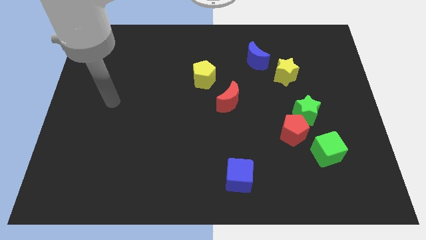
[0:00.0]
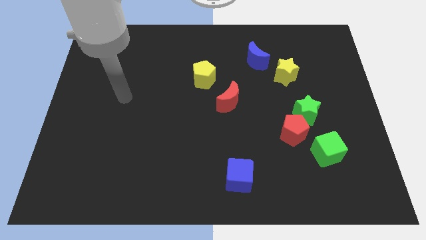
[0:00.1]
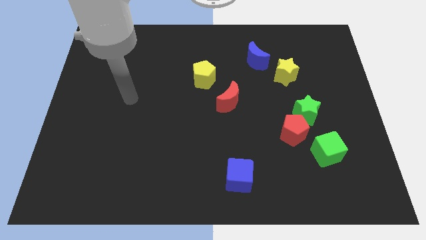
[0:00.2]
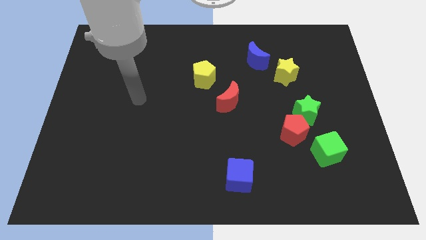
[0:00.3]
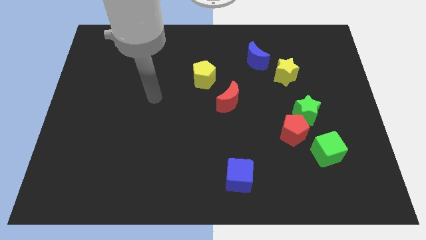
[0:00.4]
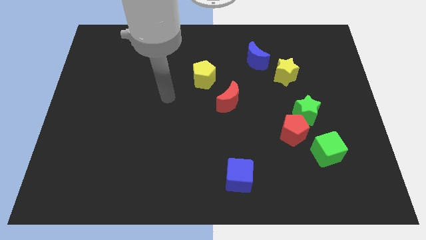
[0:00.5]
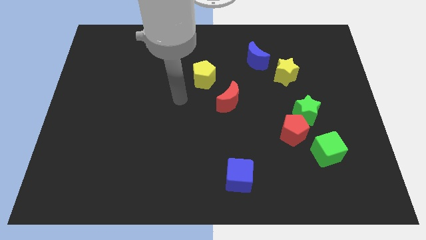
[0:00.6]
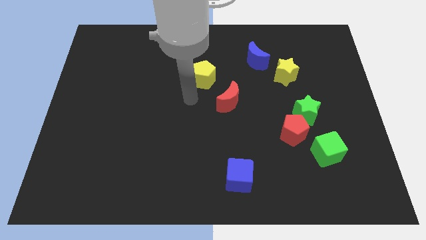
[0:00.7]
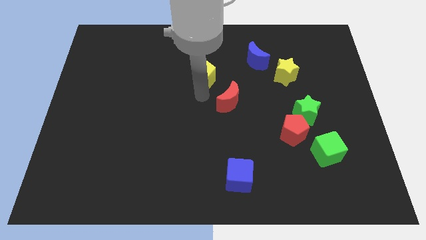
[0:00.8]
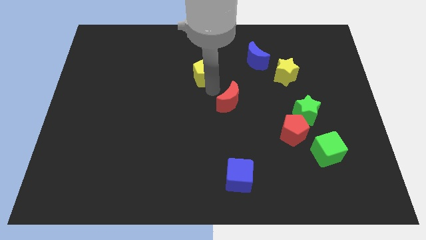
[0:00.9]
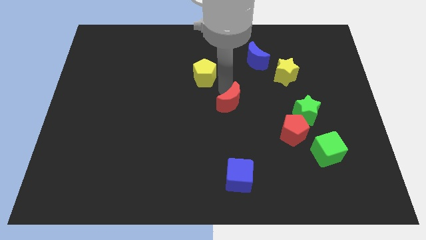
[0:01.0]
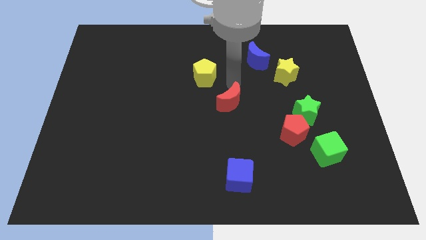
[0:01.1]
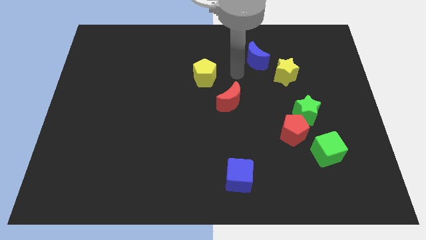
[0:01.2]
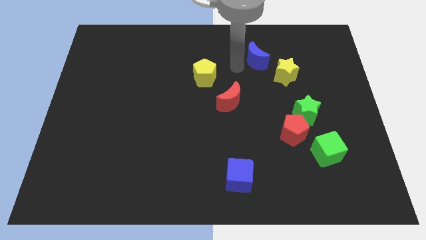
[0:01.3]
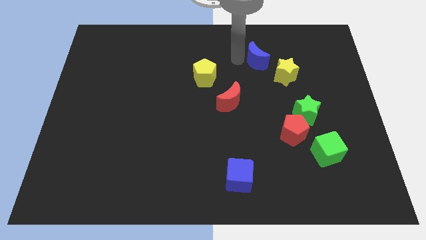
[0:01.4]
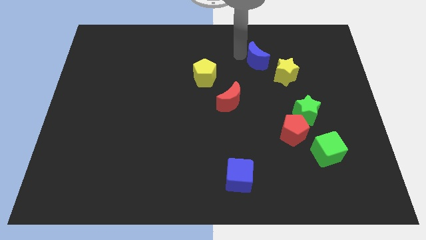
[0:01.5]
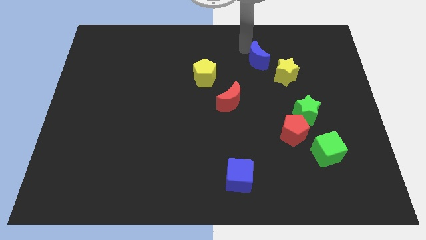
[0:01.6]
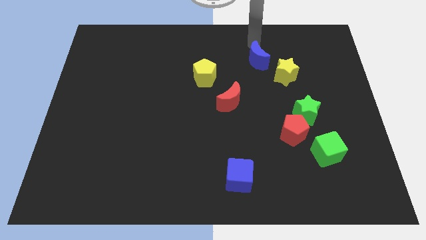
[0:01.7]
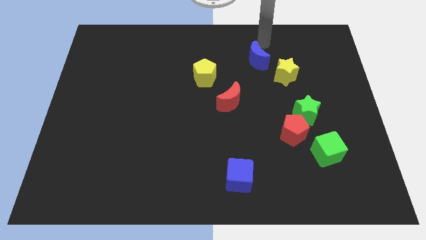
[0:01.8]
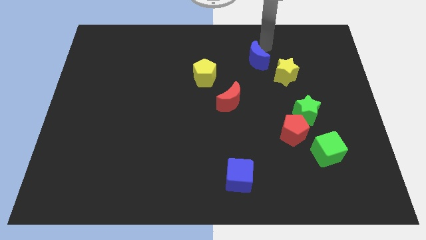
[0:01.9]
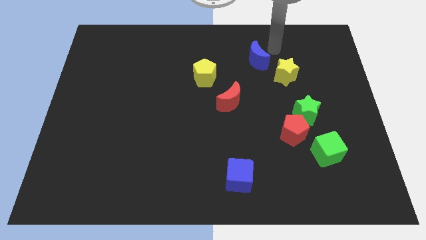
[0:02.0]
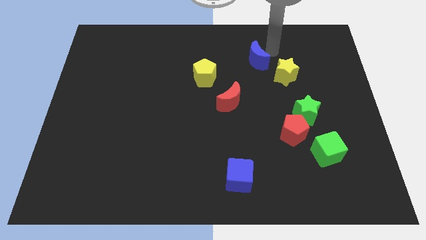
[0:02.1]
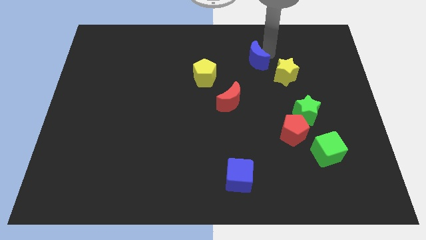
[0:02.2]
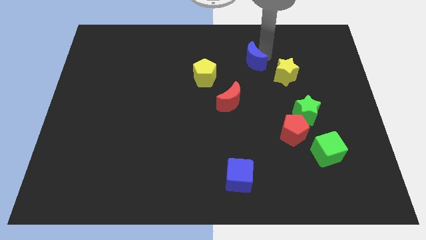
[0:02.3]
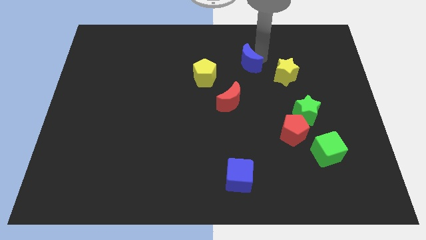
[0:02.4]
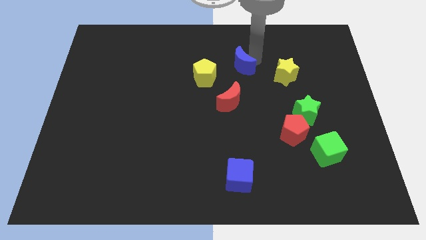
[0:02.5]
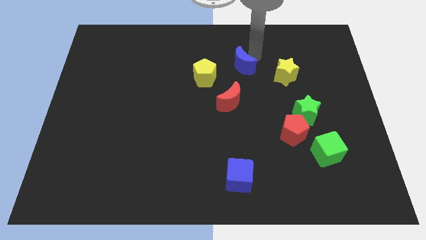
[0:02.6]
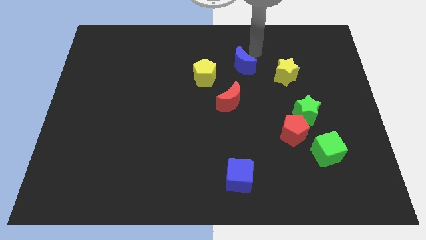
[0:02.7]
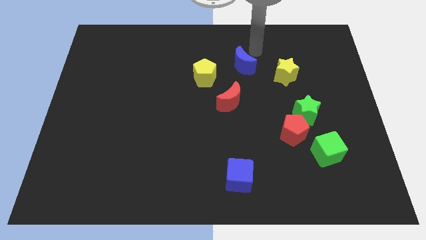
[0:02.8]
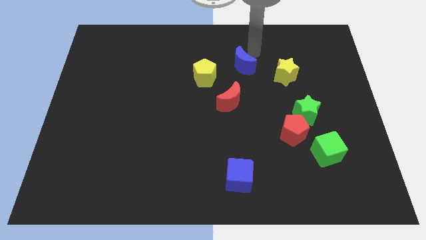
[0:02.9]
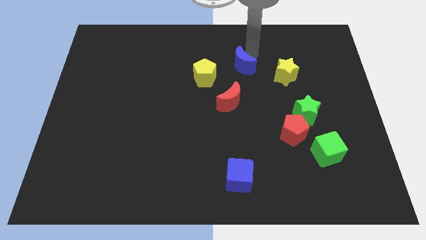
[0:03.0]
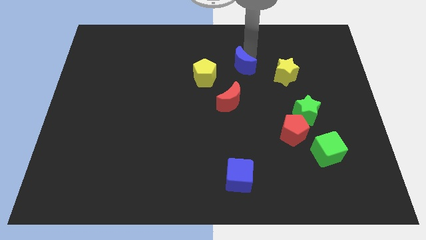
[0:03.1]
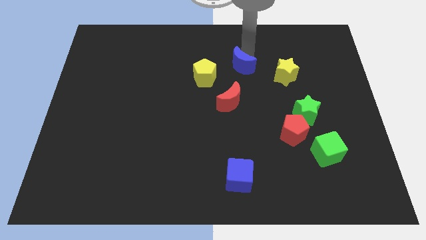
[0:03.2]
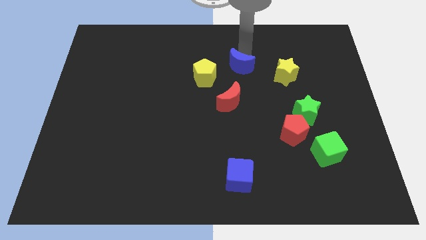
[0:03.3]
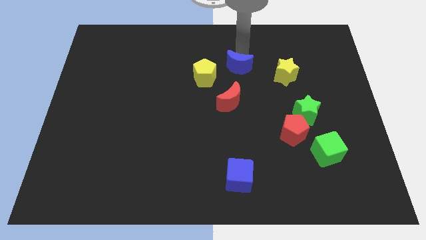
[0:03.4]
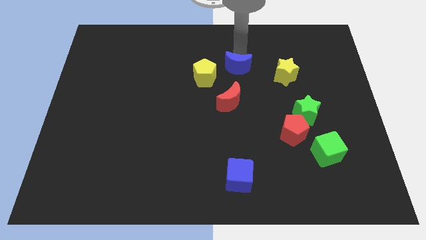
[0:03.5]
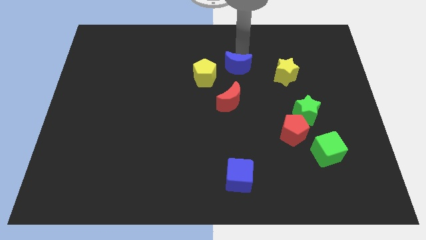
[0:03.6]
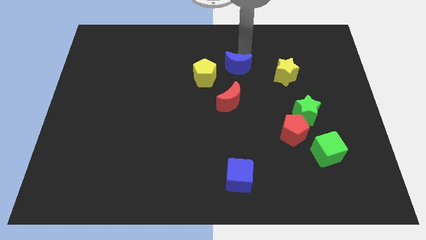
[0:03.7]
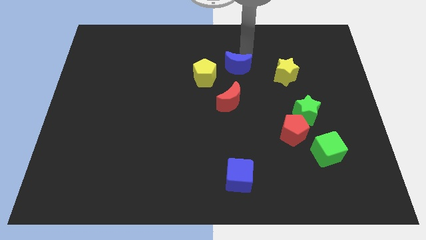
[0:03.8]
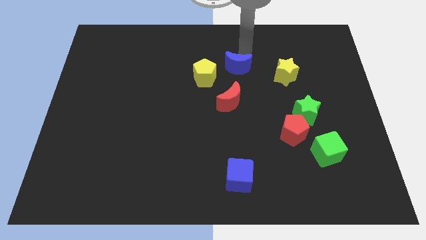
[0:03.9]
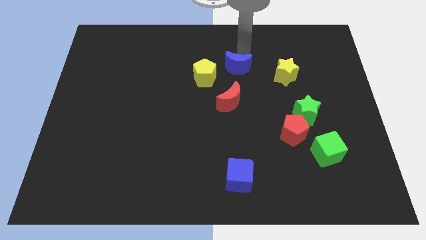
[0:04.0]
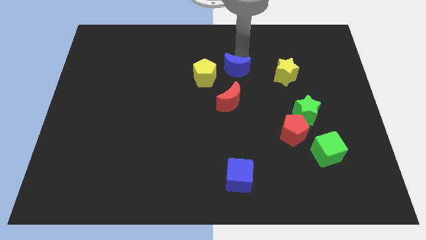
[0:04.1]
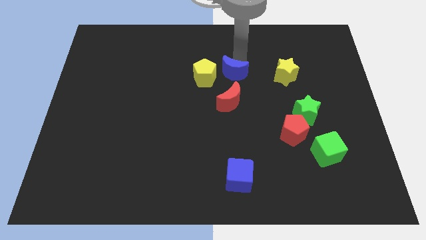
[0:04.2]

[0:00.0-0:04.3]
slightly push the blue moon down and to the left diagonally

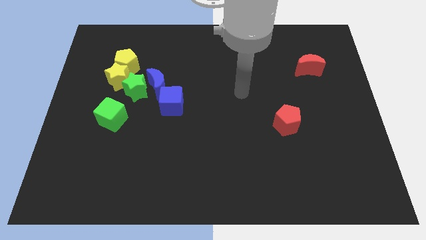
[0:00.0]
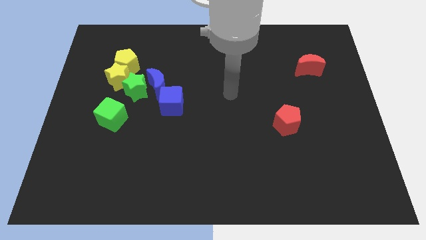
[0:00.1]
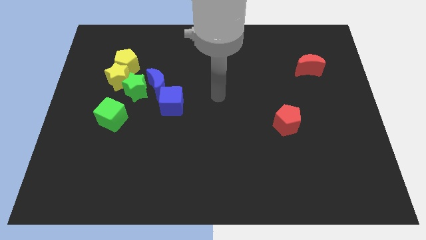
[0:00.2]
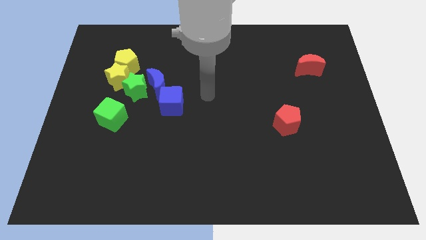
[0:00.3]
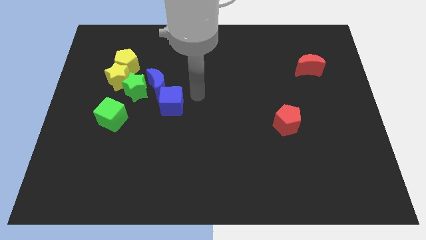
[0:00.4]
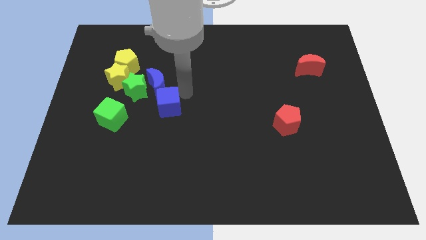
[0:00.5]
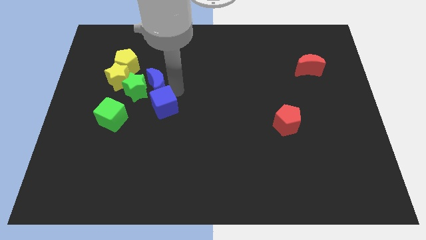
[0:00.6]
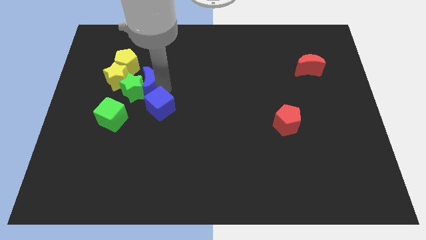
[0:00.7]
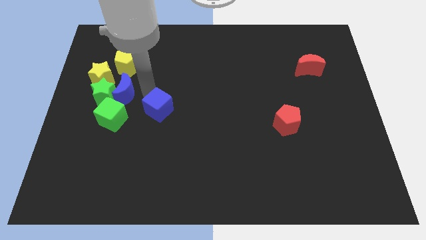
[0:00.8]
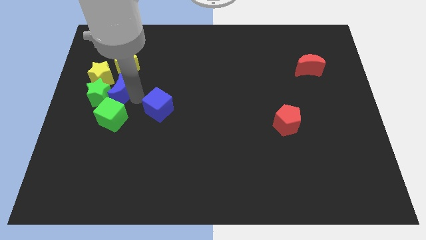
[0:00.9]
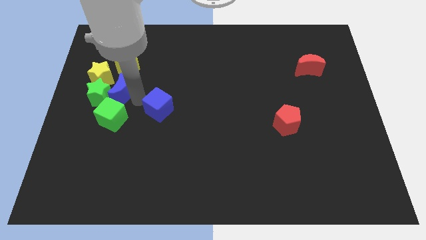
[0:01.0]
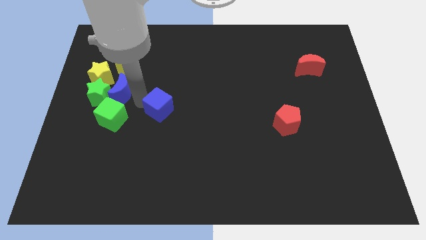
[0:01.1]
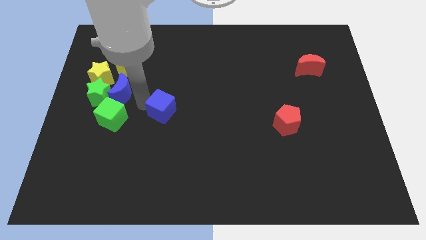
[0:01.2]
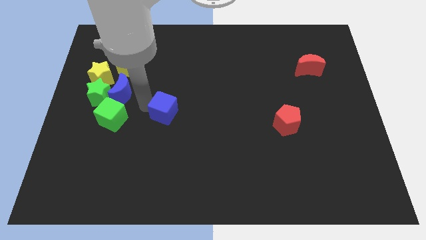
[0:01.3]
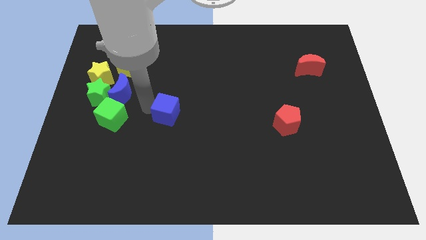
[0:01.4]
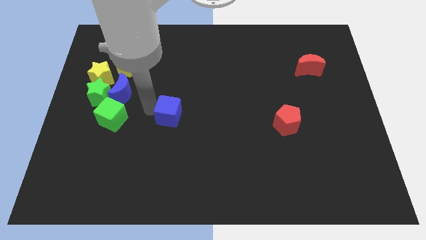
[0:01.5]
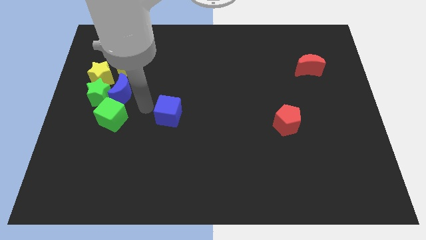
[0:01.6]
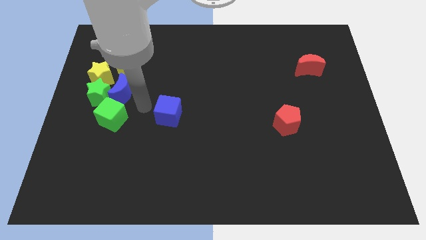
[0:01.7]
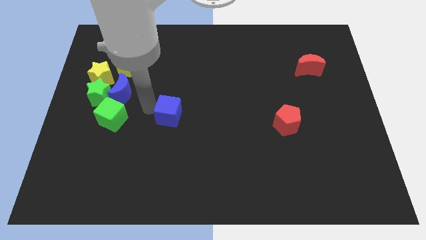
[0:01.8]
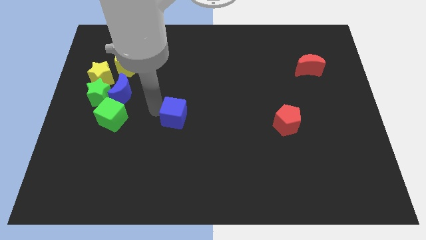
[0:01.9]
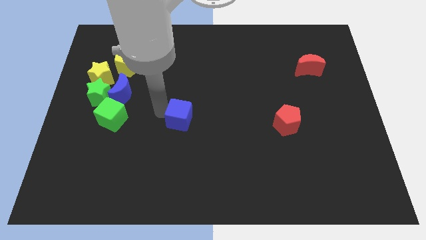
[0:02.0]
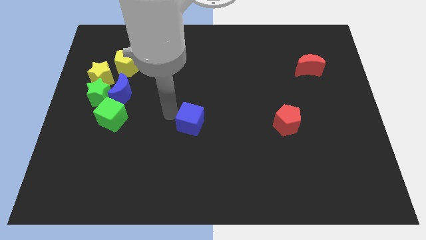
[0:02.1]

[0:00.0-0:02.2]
slide the blue cube somewhat down and then to the right

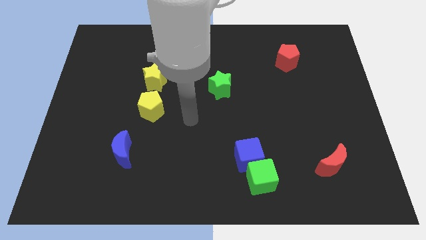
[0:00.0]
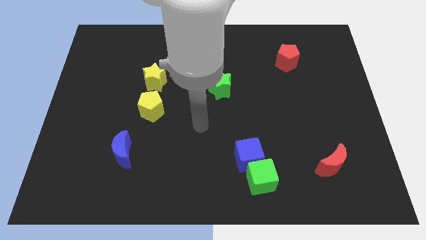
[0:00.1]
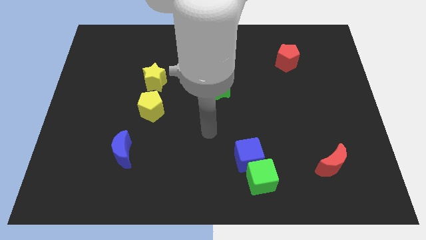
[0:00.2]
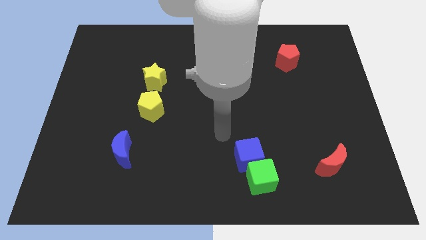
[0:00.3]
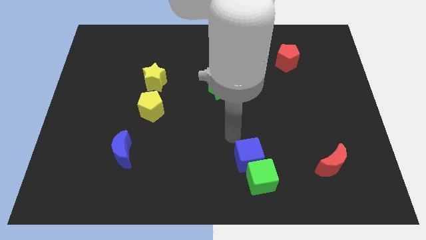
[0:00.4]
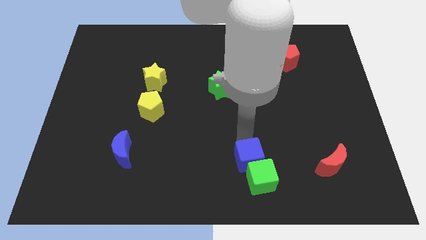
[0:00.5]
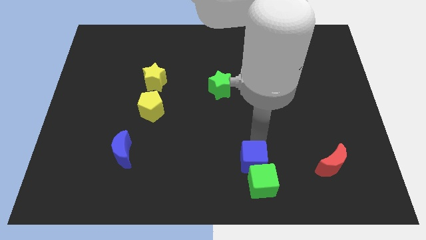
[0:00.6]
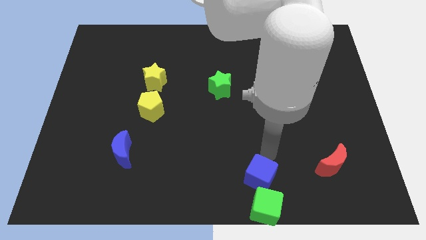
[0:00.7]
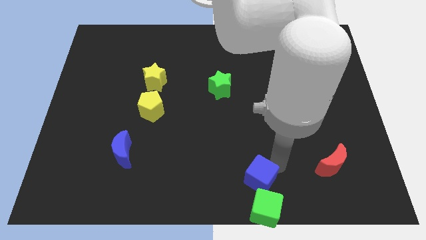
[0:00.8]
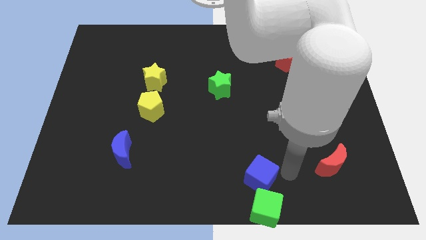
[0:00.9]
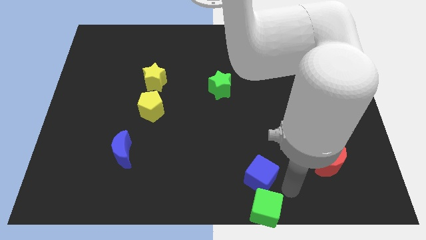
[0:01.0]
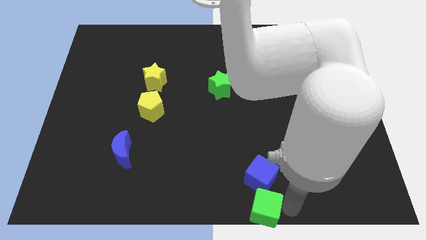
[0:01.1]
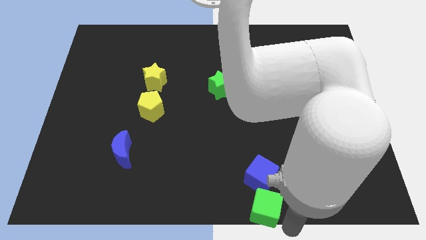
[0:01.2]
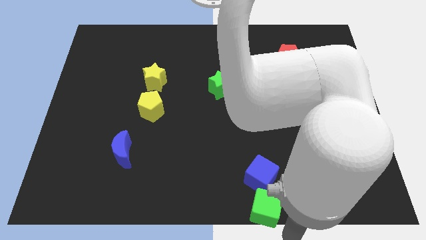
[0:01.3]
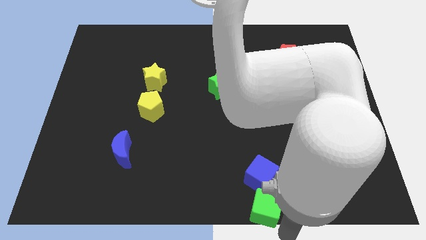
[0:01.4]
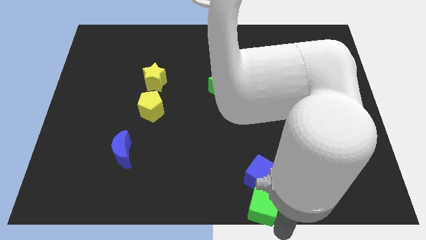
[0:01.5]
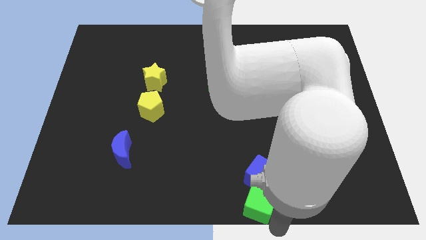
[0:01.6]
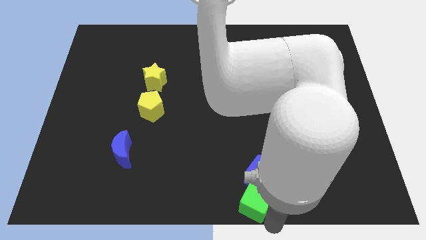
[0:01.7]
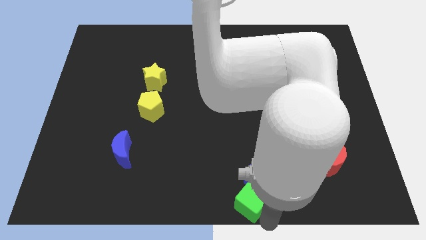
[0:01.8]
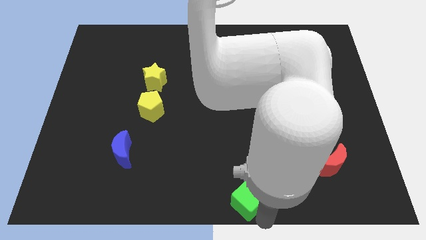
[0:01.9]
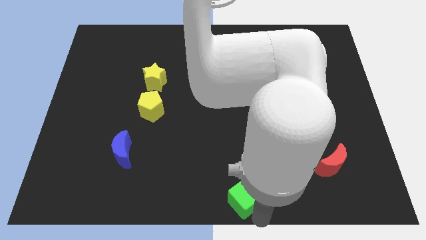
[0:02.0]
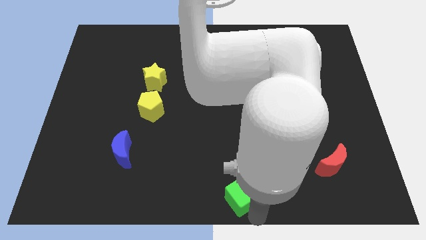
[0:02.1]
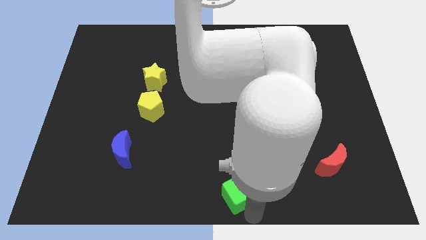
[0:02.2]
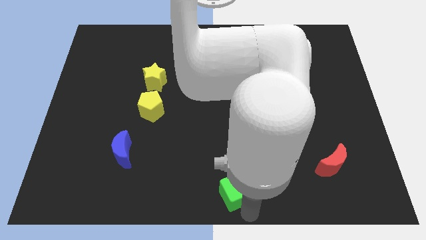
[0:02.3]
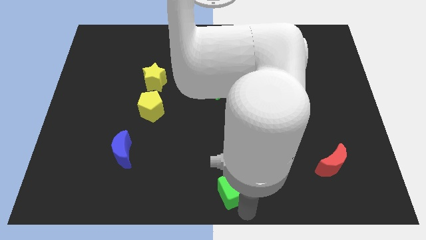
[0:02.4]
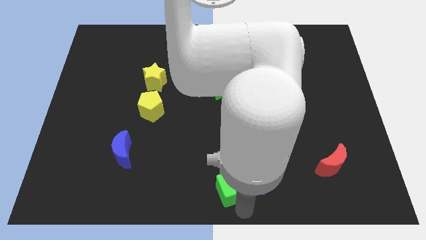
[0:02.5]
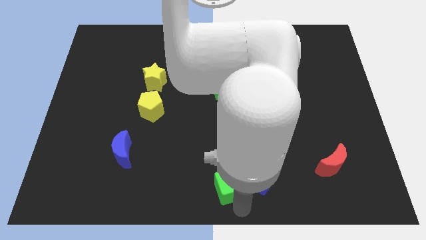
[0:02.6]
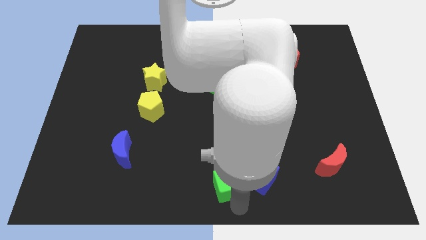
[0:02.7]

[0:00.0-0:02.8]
slightly slide the green cube left
